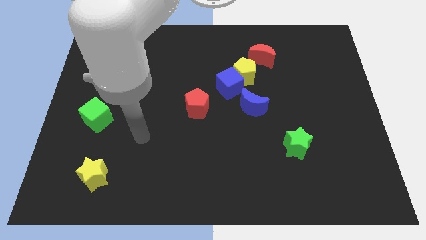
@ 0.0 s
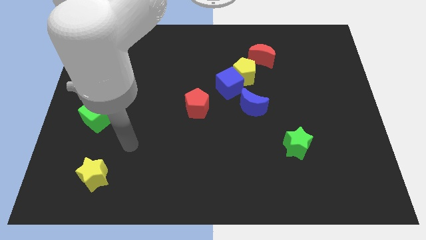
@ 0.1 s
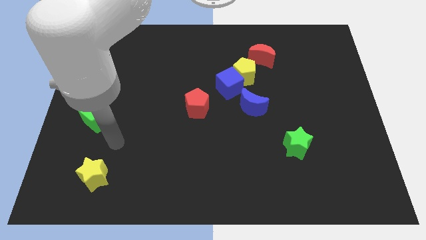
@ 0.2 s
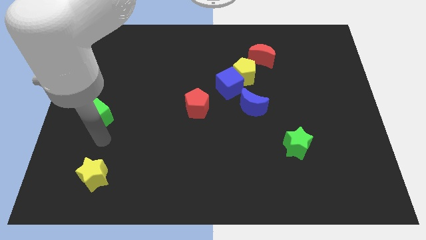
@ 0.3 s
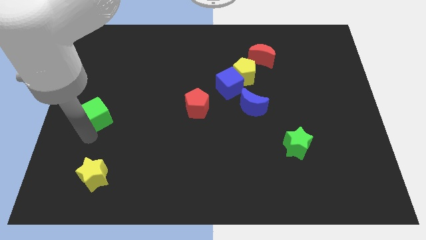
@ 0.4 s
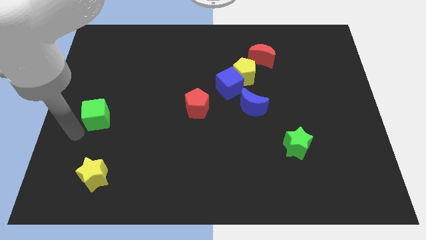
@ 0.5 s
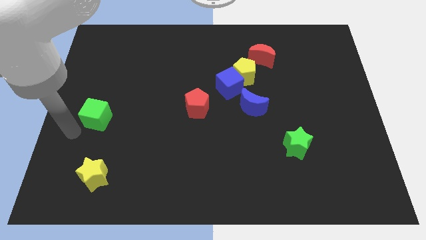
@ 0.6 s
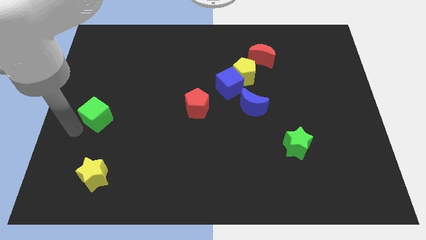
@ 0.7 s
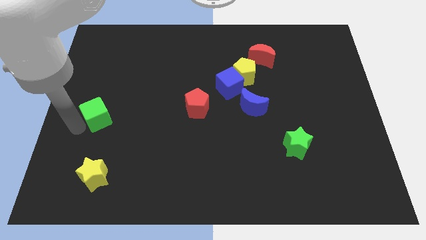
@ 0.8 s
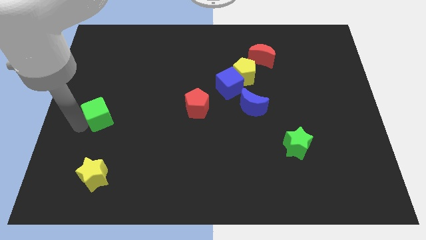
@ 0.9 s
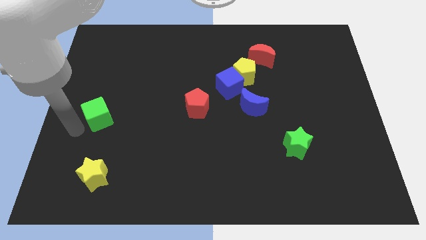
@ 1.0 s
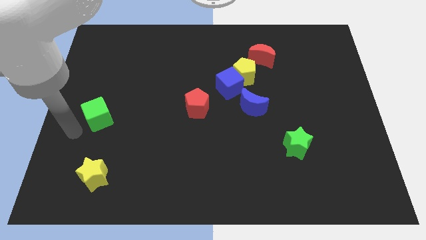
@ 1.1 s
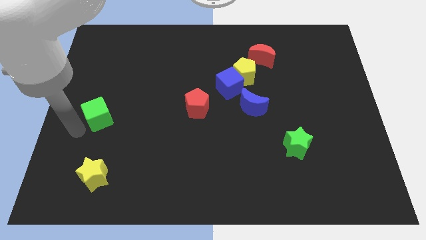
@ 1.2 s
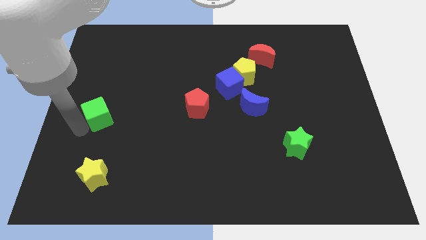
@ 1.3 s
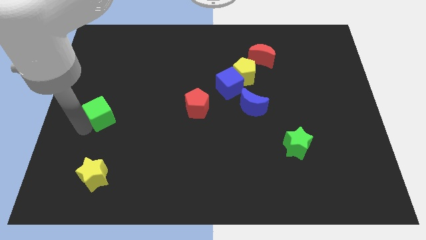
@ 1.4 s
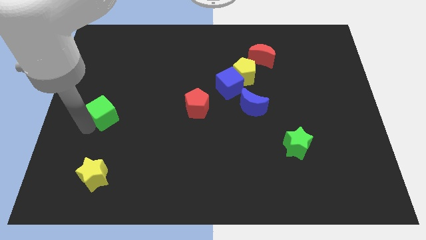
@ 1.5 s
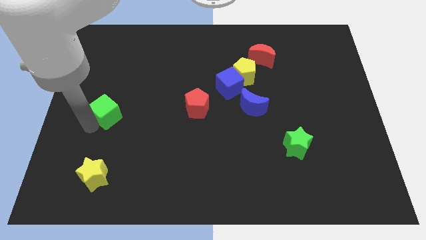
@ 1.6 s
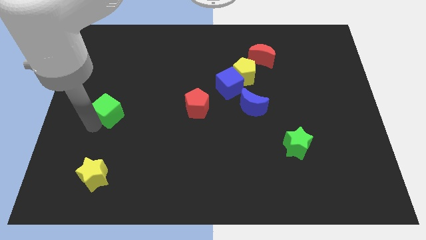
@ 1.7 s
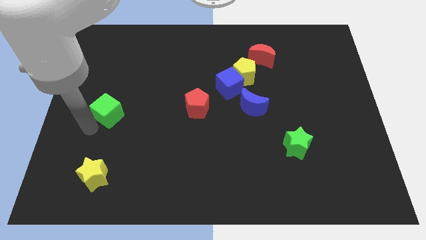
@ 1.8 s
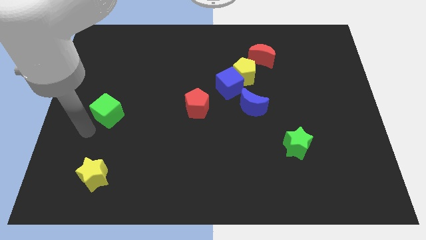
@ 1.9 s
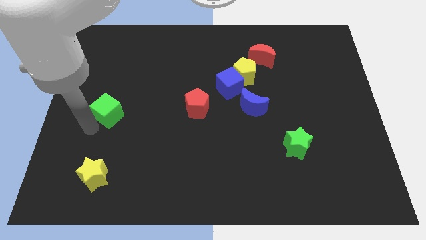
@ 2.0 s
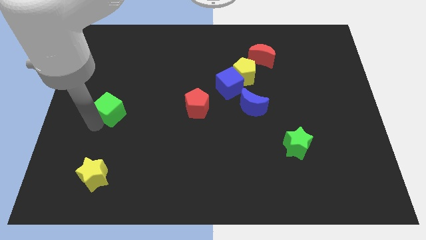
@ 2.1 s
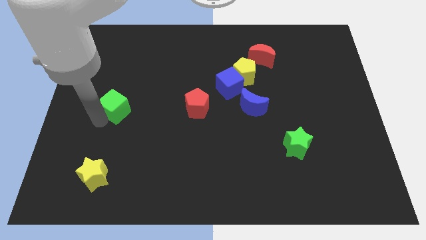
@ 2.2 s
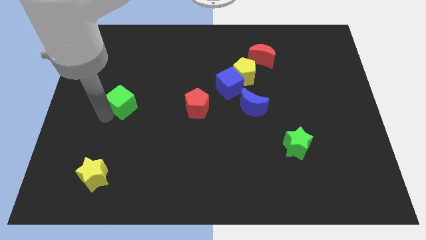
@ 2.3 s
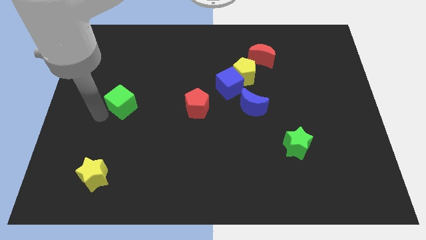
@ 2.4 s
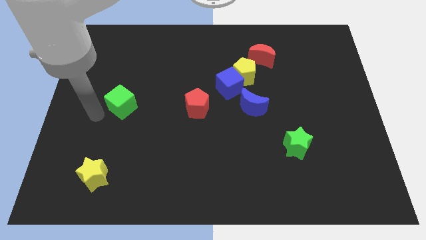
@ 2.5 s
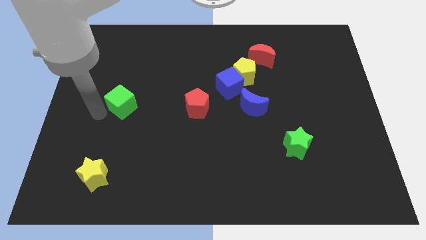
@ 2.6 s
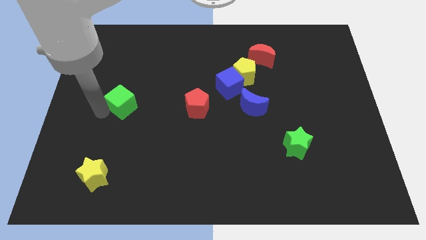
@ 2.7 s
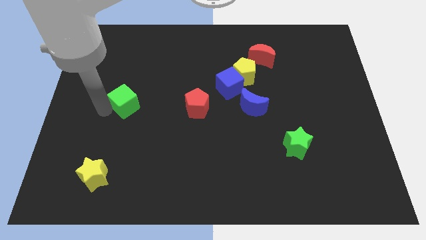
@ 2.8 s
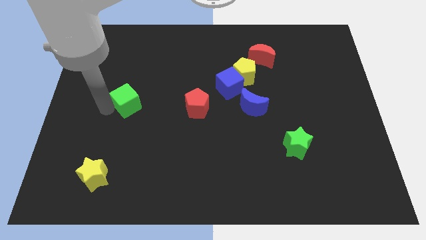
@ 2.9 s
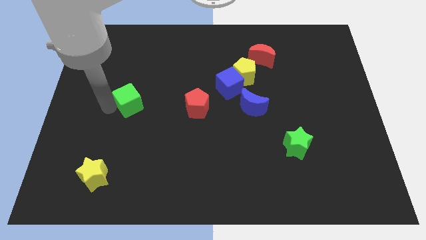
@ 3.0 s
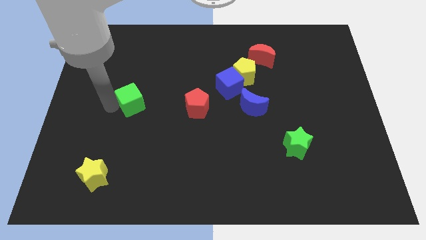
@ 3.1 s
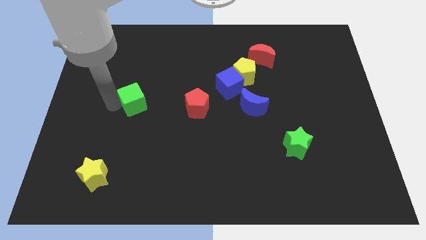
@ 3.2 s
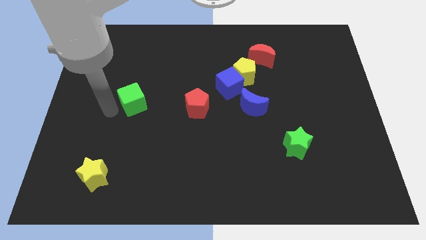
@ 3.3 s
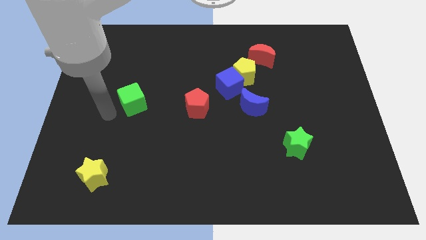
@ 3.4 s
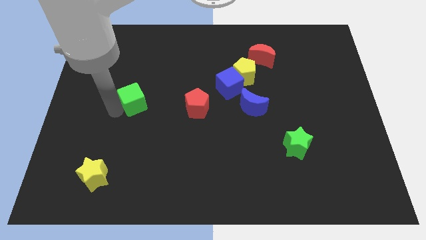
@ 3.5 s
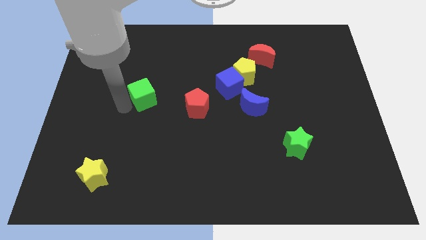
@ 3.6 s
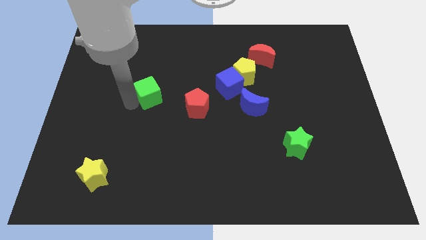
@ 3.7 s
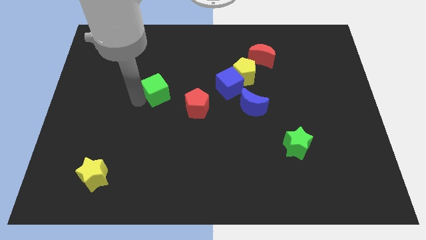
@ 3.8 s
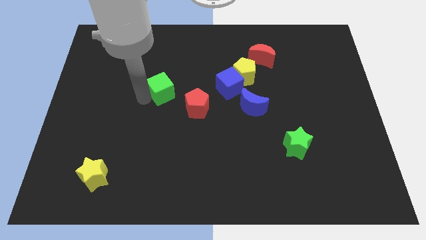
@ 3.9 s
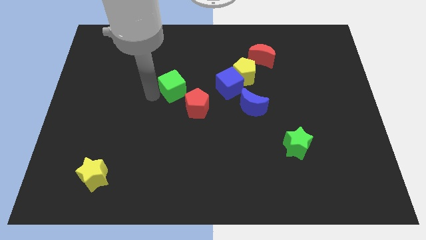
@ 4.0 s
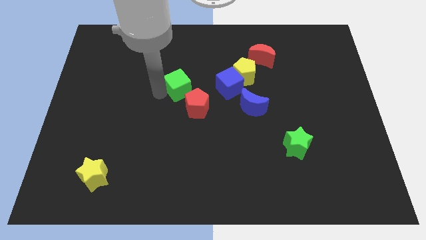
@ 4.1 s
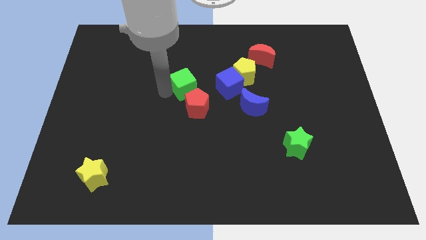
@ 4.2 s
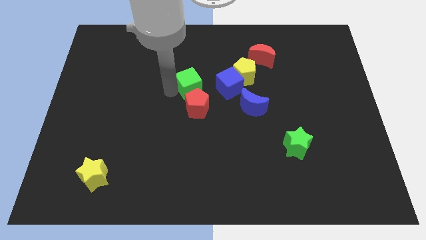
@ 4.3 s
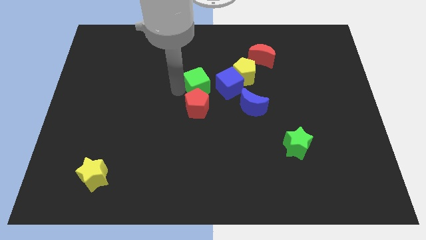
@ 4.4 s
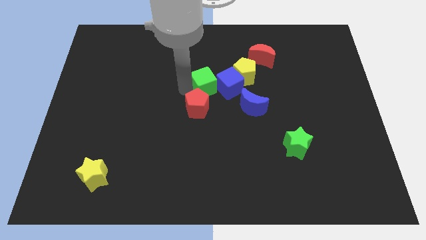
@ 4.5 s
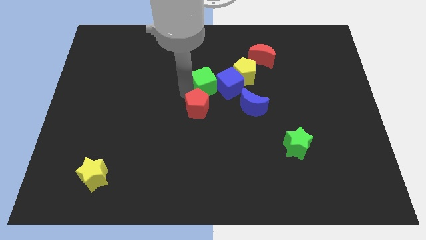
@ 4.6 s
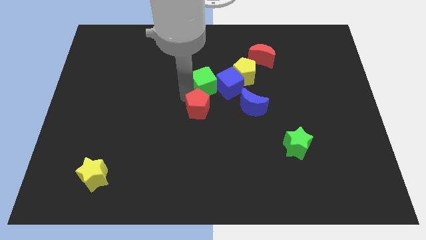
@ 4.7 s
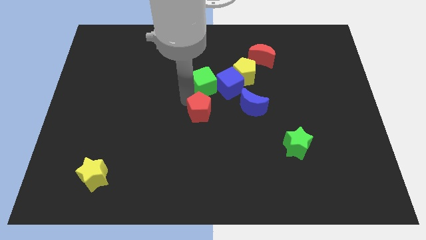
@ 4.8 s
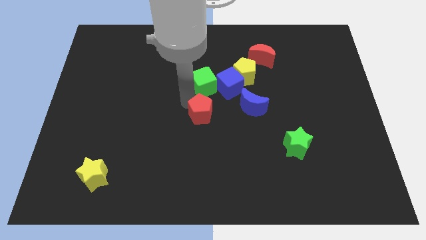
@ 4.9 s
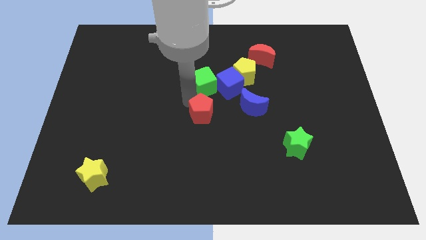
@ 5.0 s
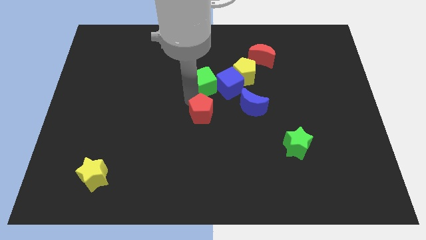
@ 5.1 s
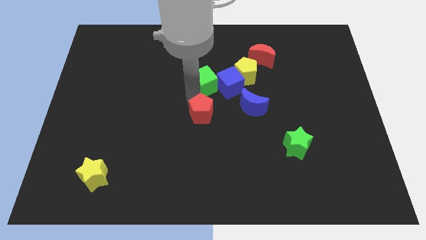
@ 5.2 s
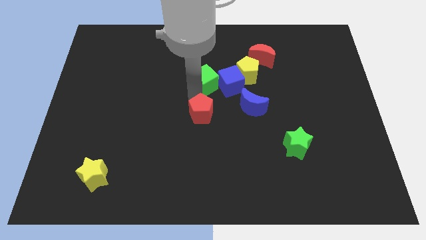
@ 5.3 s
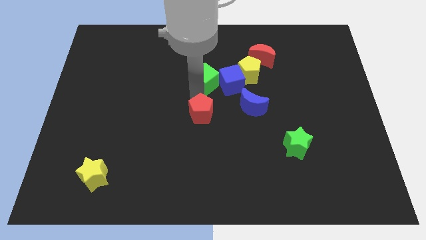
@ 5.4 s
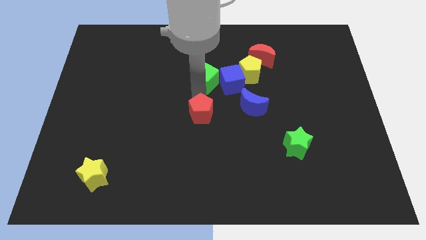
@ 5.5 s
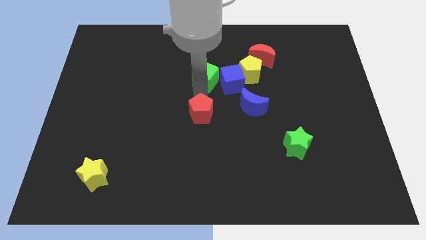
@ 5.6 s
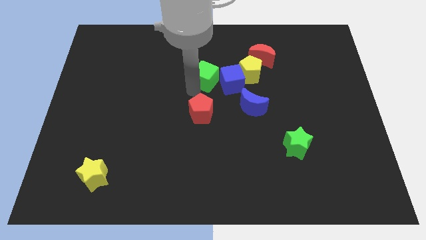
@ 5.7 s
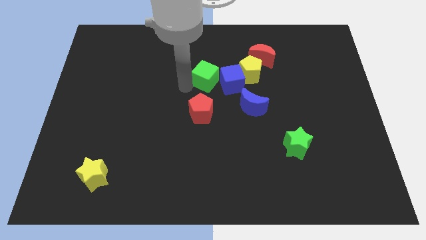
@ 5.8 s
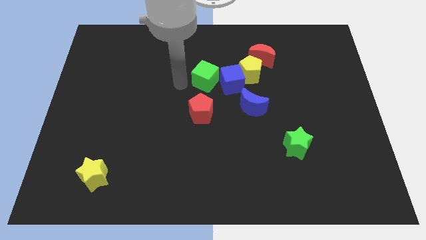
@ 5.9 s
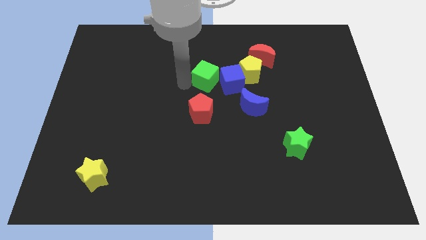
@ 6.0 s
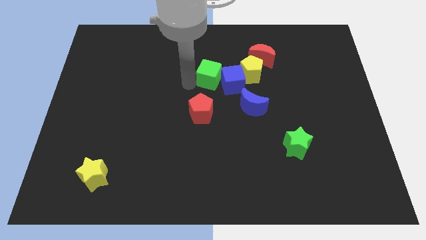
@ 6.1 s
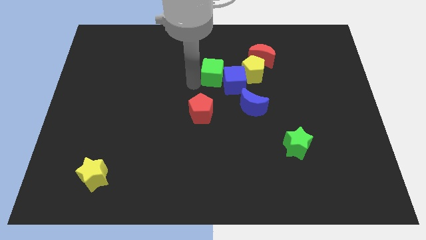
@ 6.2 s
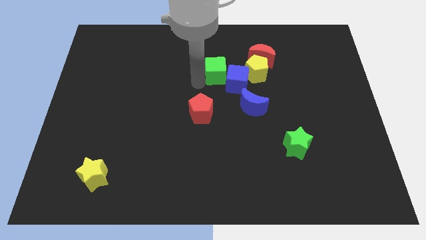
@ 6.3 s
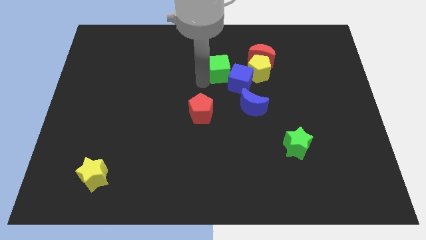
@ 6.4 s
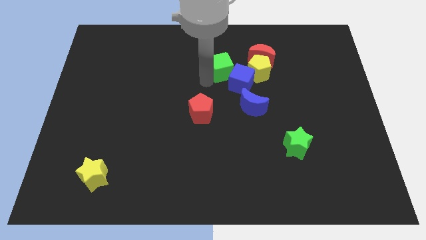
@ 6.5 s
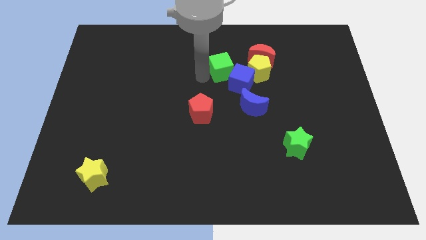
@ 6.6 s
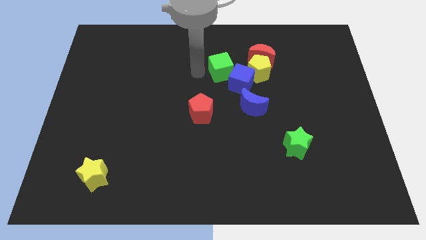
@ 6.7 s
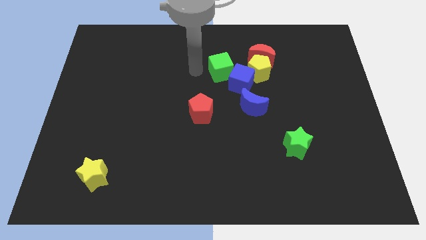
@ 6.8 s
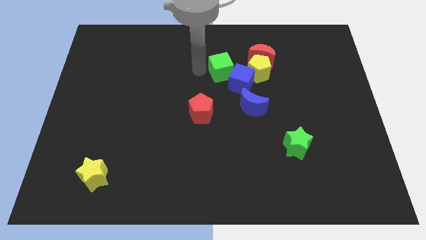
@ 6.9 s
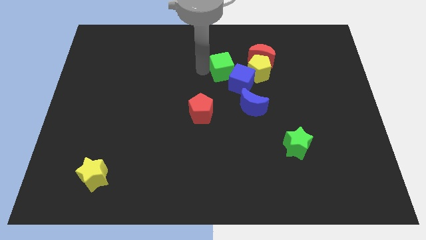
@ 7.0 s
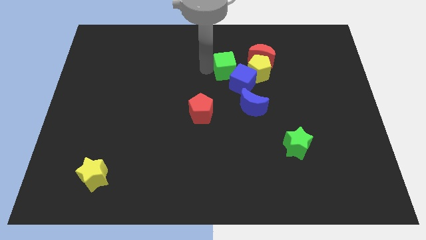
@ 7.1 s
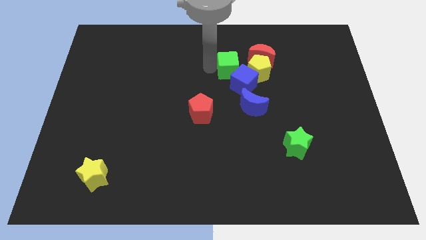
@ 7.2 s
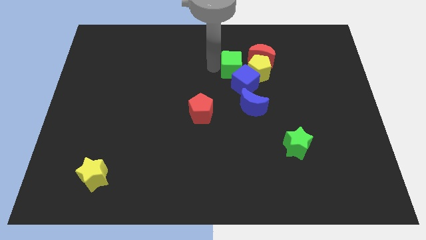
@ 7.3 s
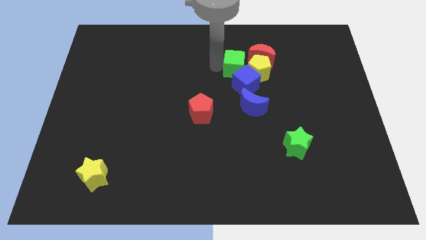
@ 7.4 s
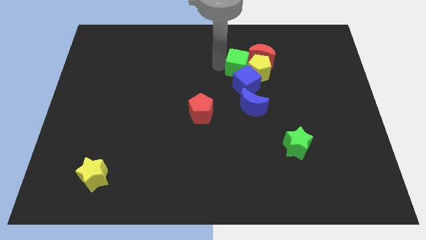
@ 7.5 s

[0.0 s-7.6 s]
slide the green cube close to the yellow pentagon

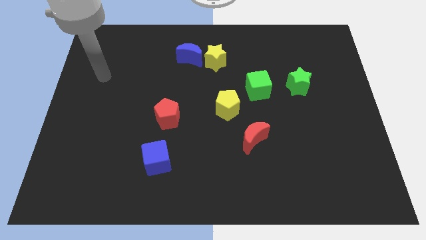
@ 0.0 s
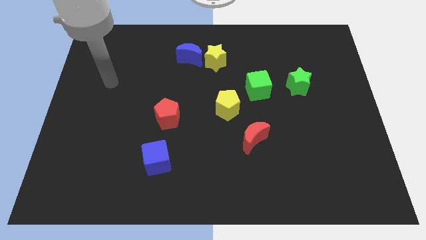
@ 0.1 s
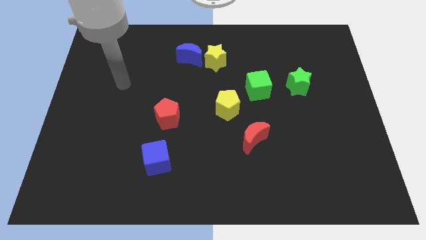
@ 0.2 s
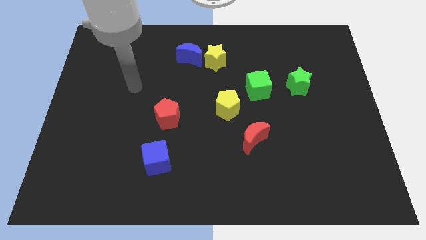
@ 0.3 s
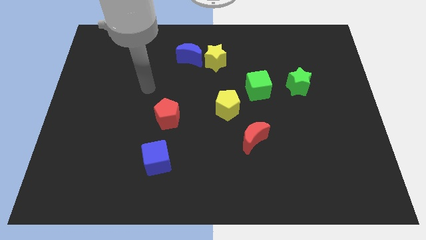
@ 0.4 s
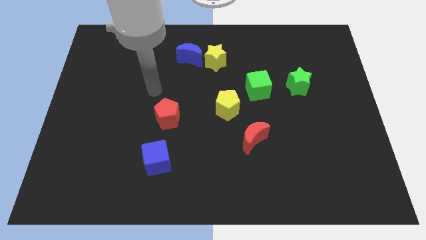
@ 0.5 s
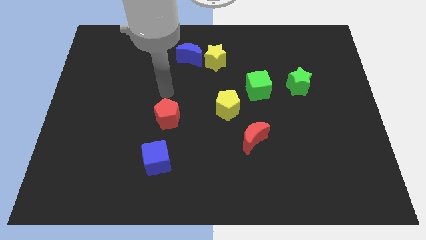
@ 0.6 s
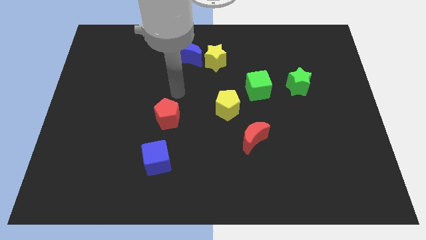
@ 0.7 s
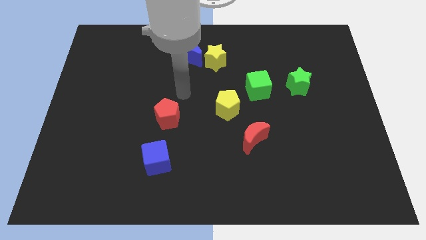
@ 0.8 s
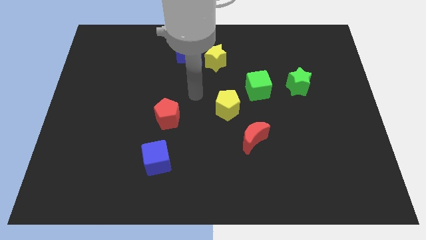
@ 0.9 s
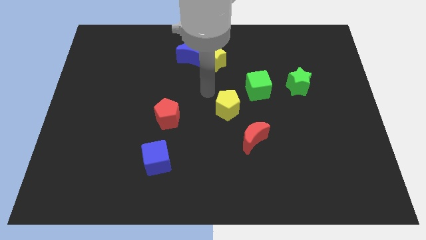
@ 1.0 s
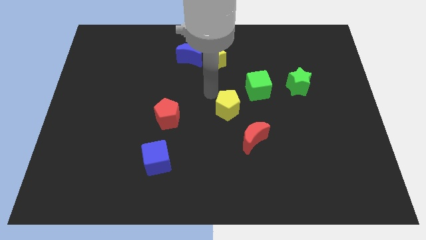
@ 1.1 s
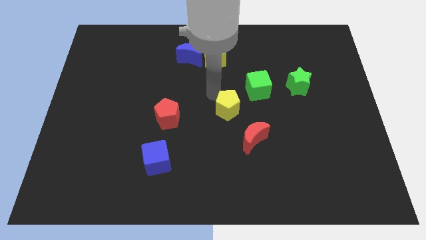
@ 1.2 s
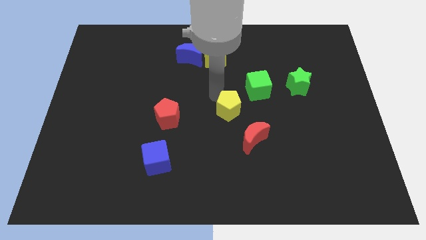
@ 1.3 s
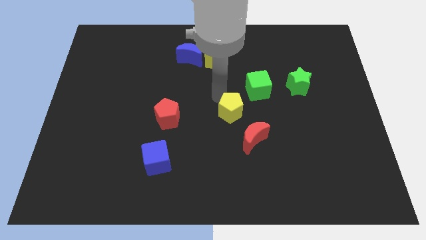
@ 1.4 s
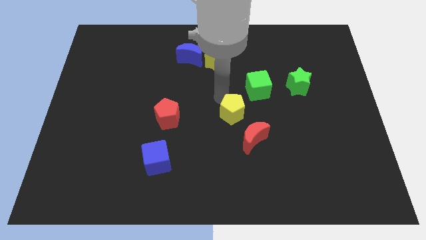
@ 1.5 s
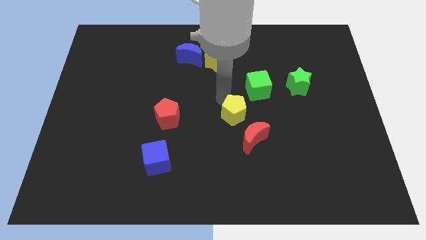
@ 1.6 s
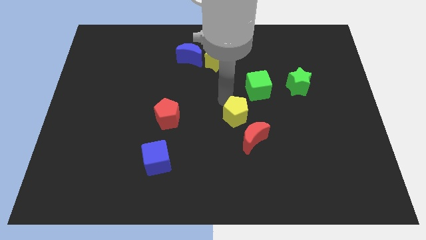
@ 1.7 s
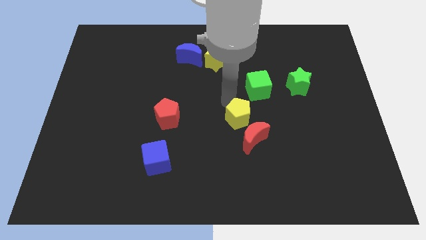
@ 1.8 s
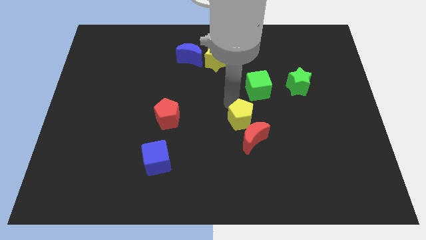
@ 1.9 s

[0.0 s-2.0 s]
put the yellow pentagon towards the red moon
